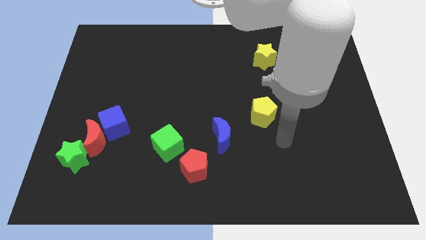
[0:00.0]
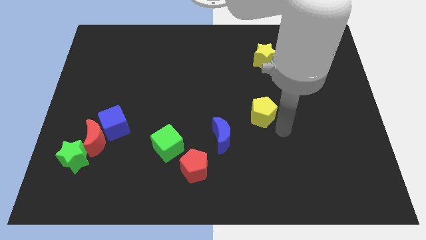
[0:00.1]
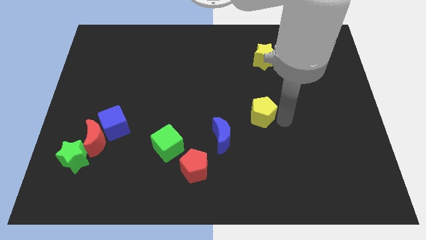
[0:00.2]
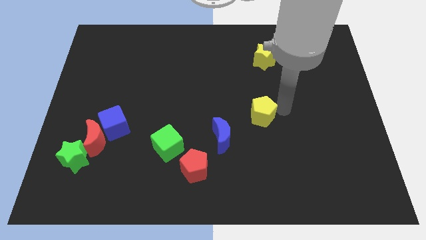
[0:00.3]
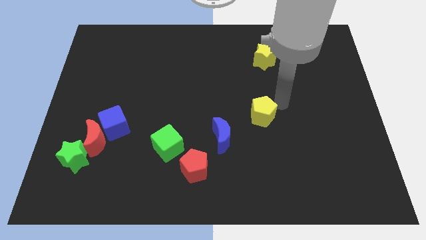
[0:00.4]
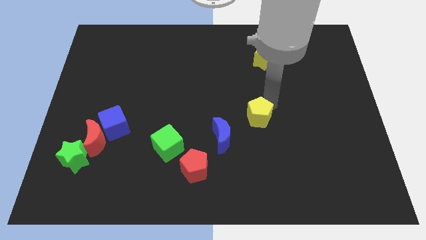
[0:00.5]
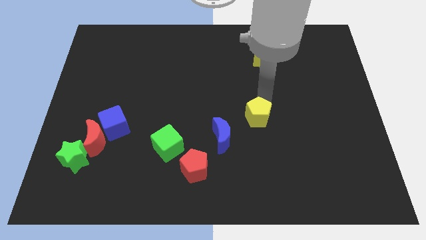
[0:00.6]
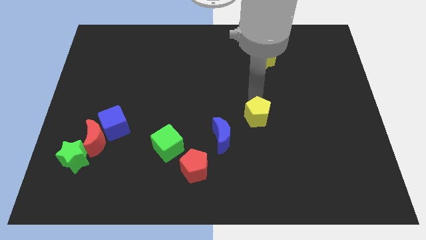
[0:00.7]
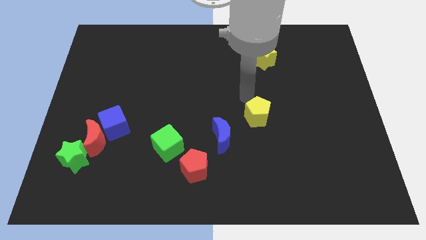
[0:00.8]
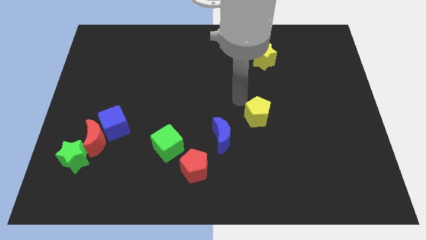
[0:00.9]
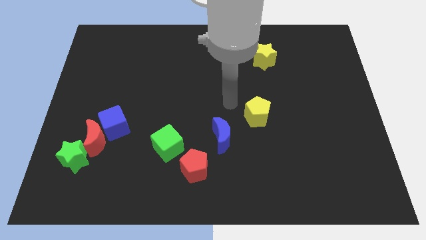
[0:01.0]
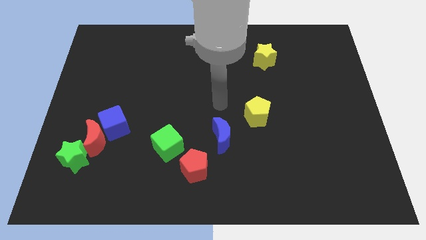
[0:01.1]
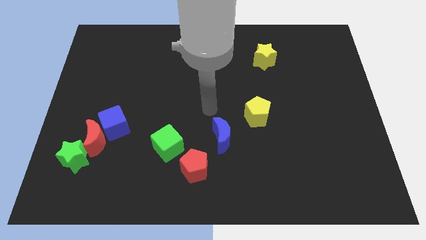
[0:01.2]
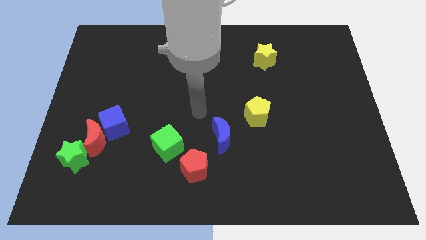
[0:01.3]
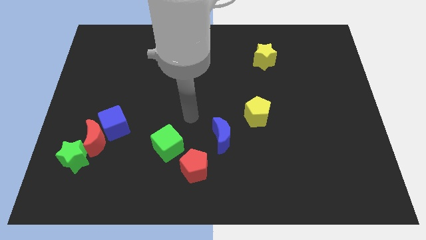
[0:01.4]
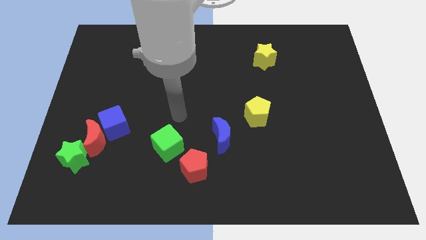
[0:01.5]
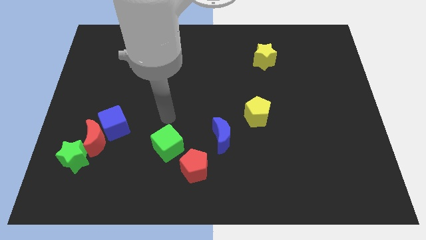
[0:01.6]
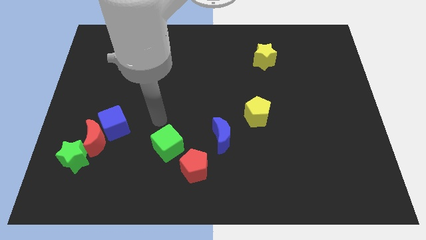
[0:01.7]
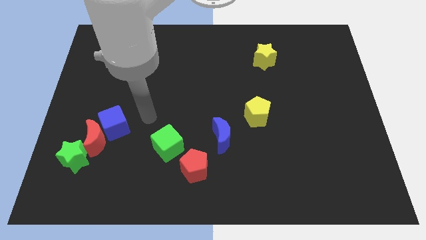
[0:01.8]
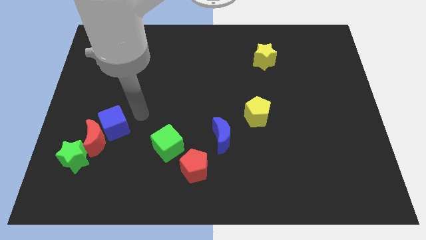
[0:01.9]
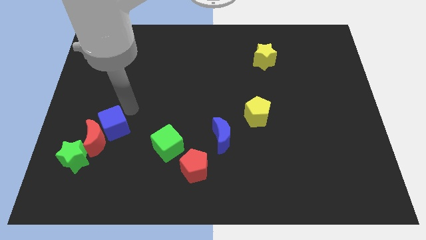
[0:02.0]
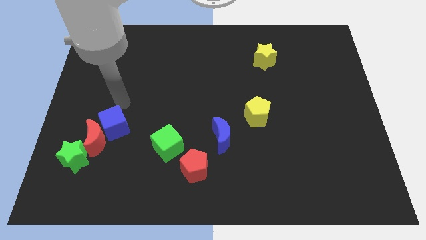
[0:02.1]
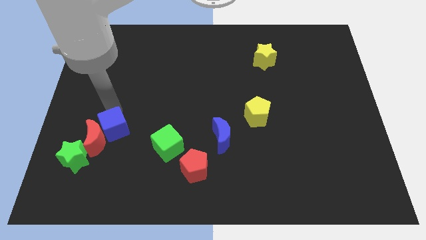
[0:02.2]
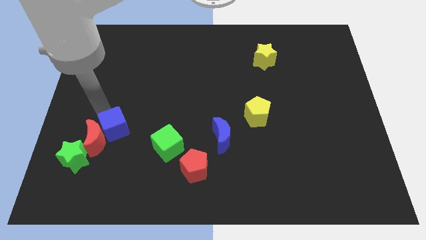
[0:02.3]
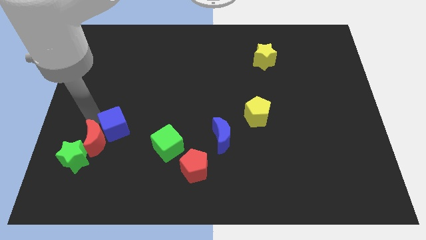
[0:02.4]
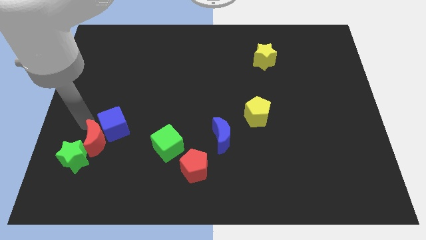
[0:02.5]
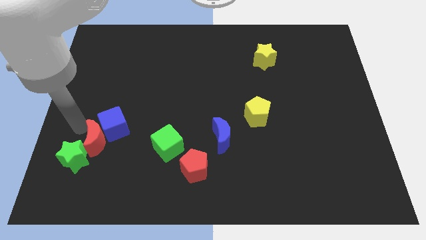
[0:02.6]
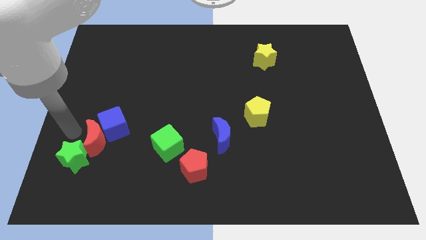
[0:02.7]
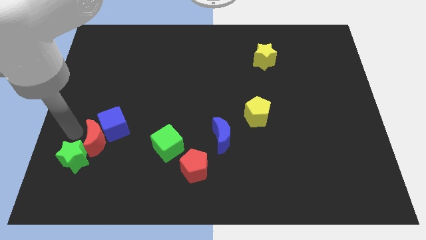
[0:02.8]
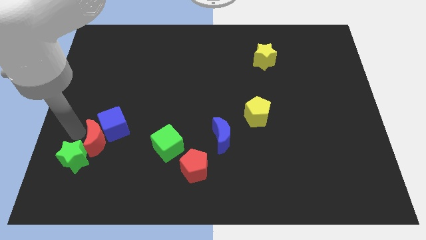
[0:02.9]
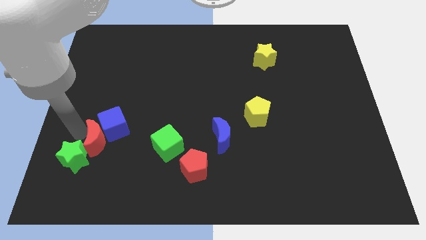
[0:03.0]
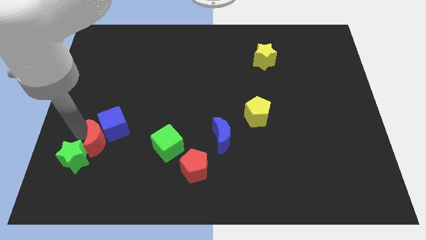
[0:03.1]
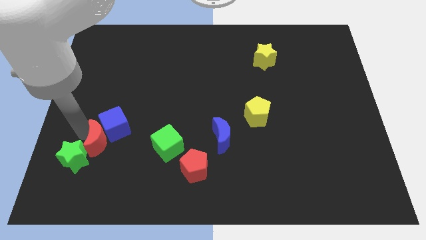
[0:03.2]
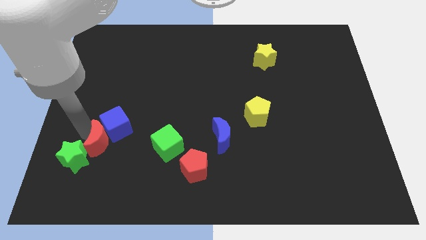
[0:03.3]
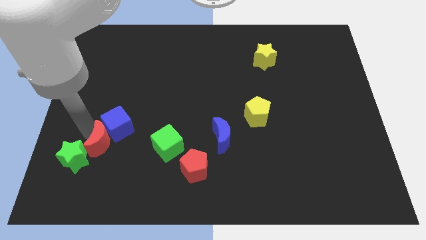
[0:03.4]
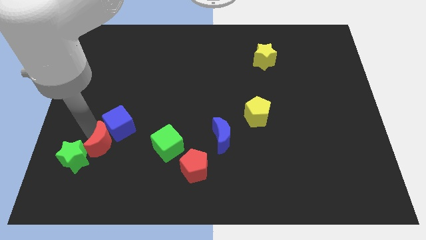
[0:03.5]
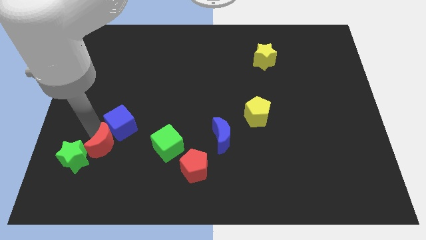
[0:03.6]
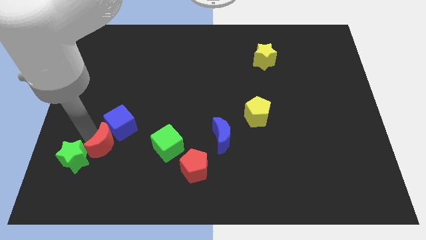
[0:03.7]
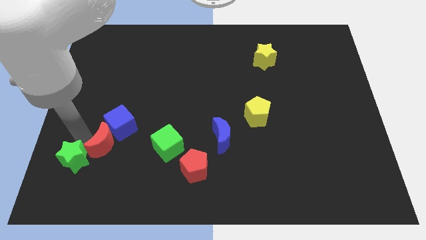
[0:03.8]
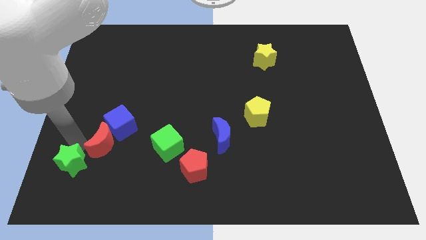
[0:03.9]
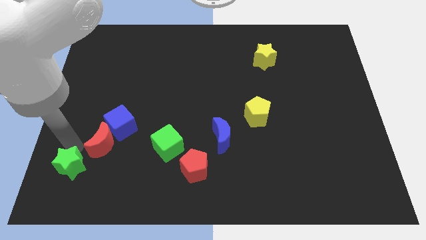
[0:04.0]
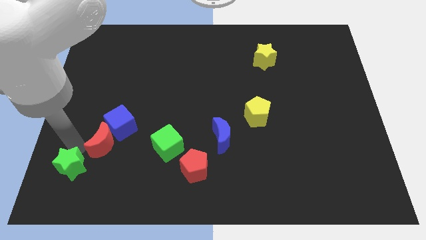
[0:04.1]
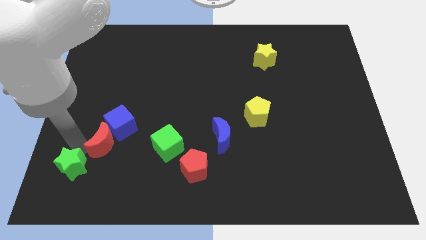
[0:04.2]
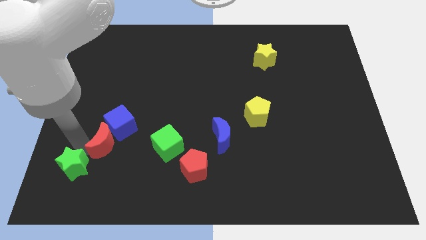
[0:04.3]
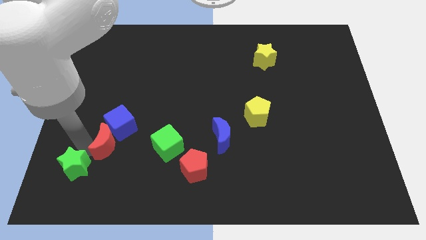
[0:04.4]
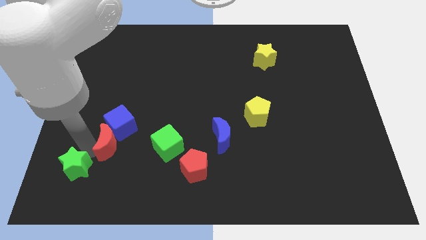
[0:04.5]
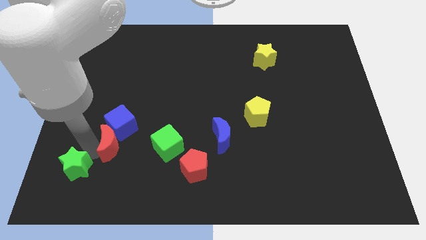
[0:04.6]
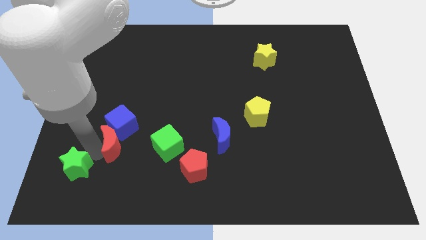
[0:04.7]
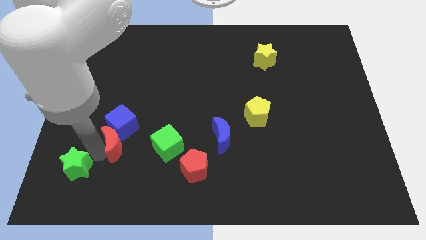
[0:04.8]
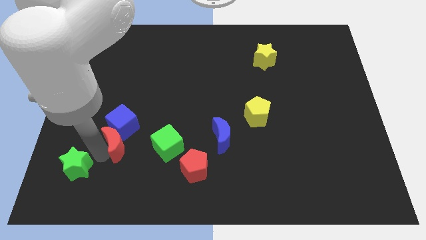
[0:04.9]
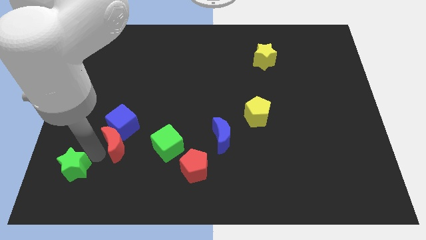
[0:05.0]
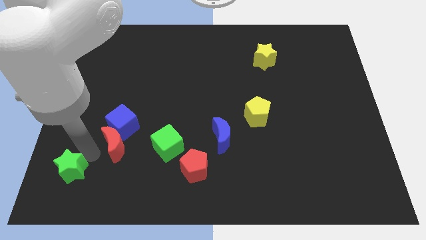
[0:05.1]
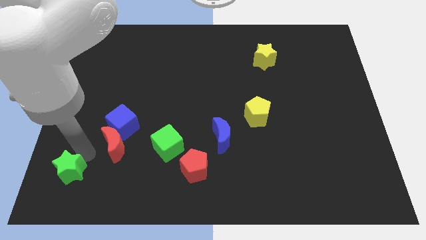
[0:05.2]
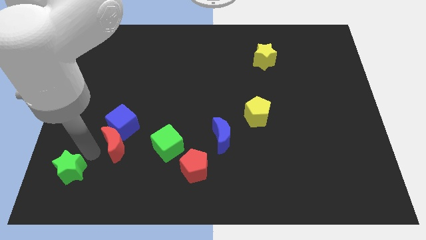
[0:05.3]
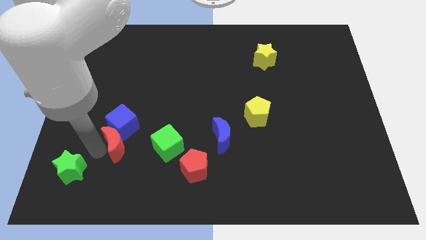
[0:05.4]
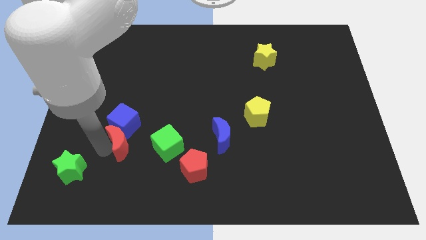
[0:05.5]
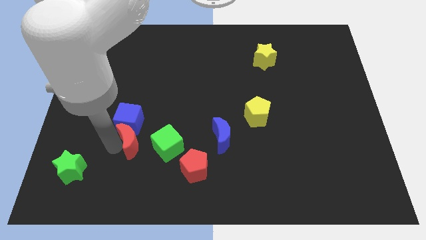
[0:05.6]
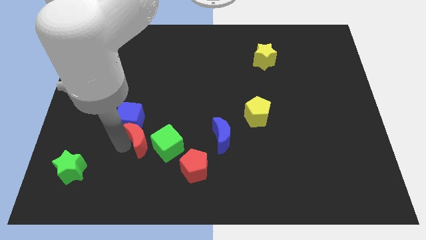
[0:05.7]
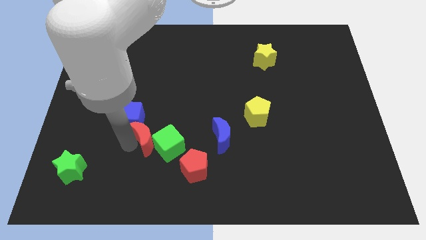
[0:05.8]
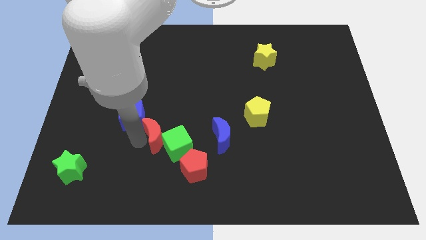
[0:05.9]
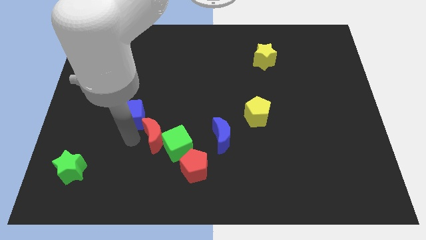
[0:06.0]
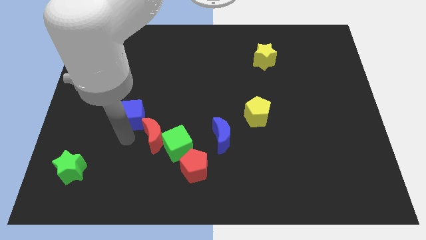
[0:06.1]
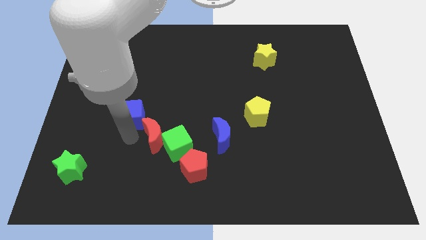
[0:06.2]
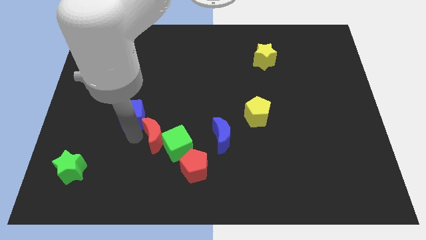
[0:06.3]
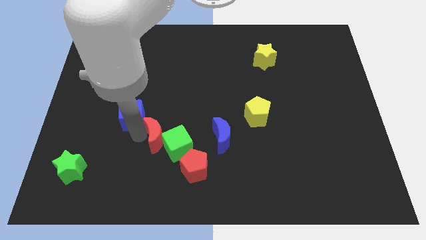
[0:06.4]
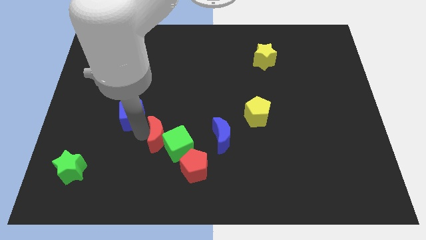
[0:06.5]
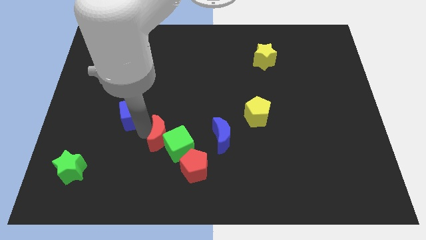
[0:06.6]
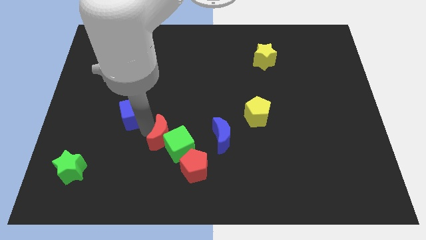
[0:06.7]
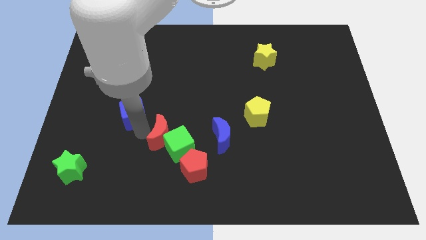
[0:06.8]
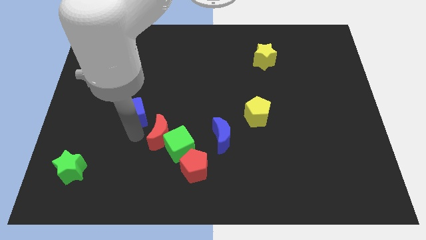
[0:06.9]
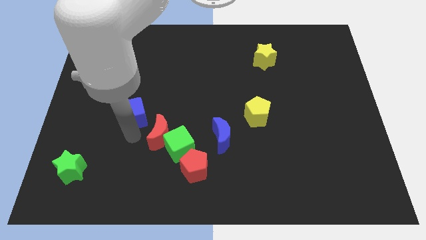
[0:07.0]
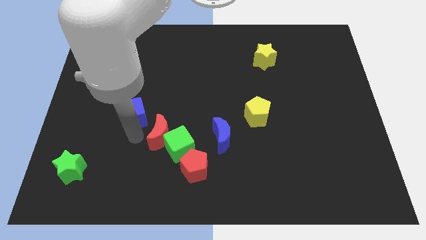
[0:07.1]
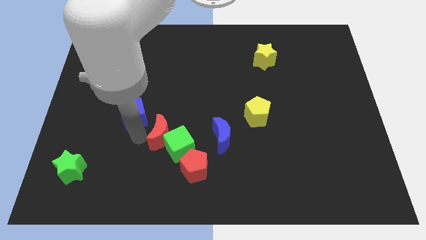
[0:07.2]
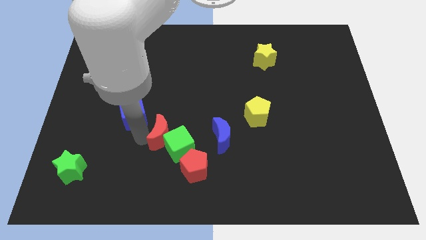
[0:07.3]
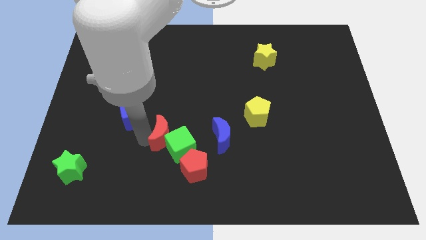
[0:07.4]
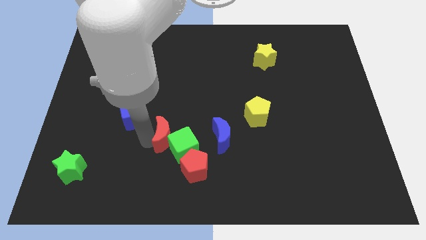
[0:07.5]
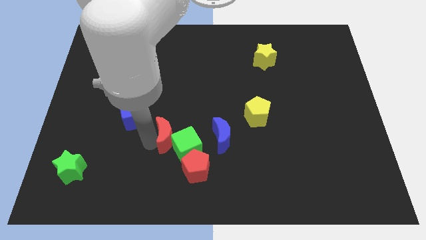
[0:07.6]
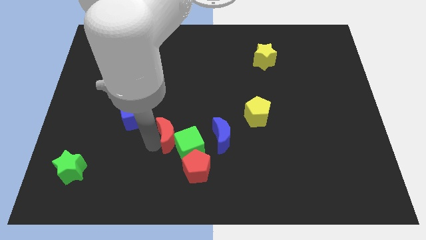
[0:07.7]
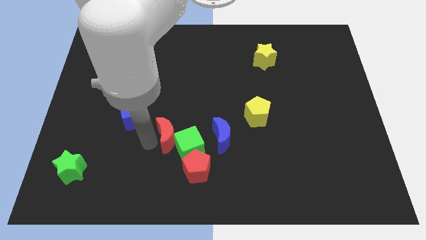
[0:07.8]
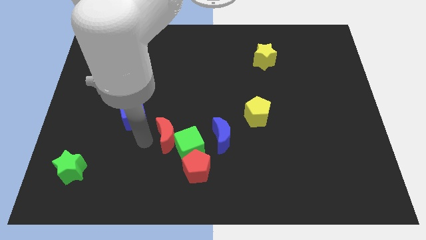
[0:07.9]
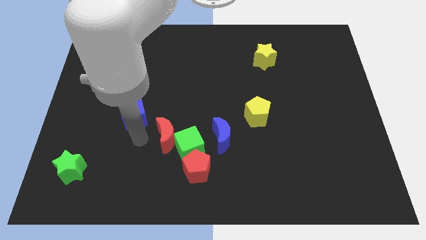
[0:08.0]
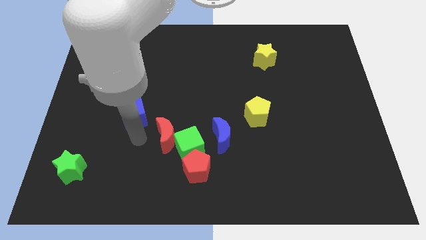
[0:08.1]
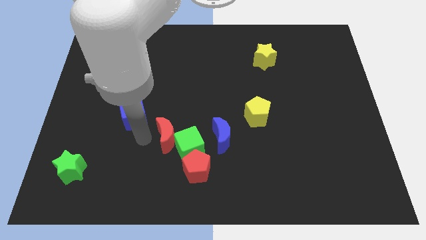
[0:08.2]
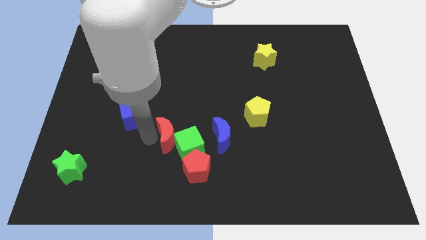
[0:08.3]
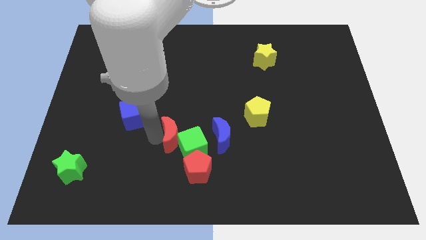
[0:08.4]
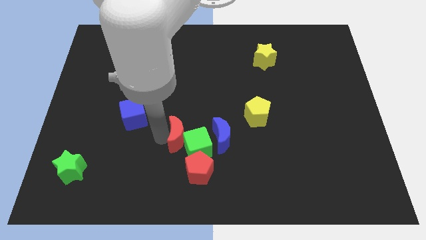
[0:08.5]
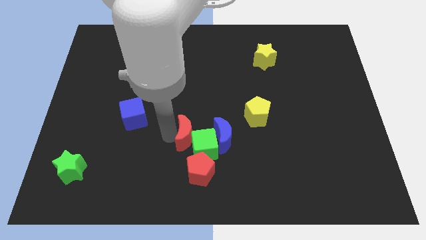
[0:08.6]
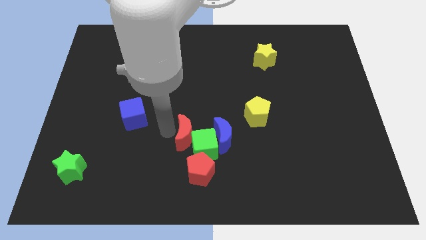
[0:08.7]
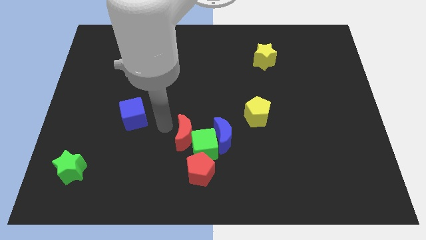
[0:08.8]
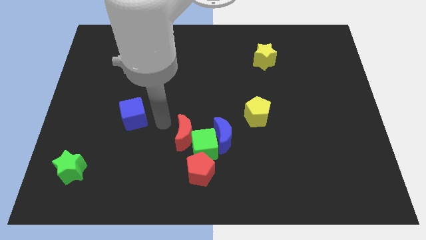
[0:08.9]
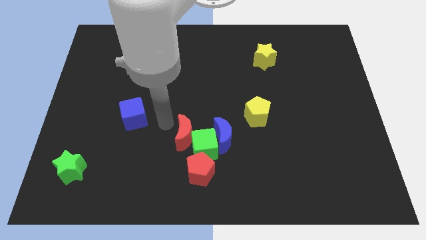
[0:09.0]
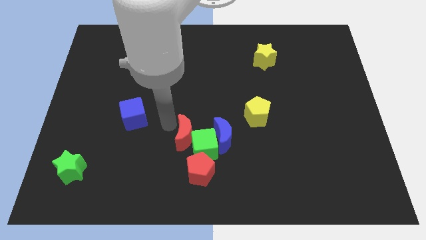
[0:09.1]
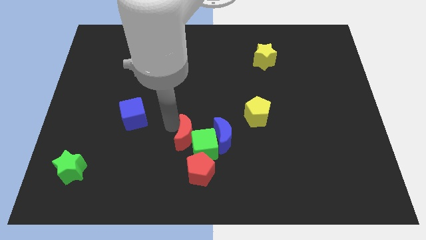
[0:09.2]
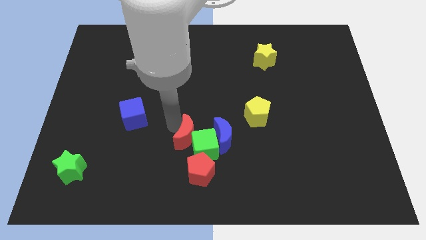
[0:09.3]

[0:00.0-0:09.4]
push the red moon to the right
